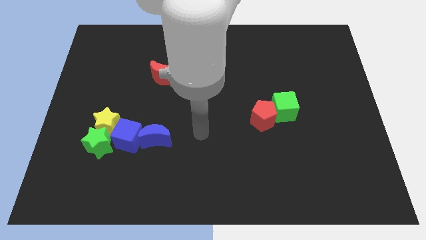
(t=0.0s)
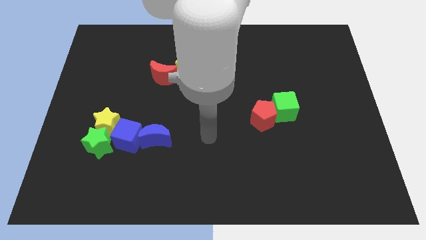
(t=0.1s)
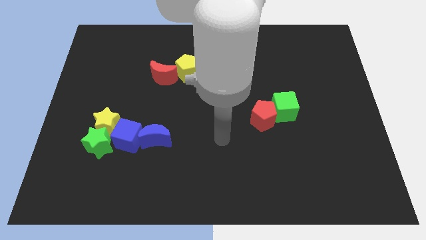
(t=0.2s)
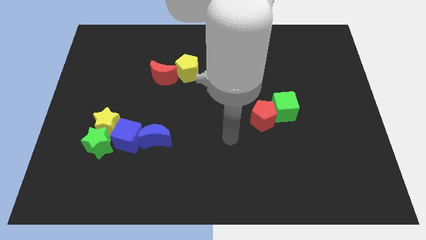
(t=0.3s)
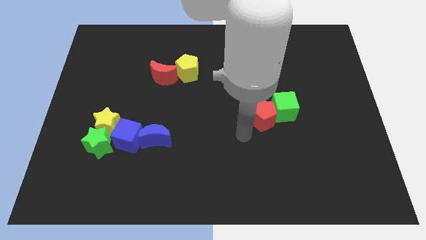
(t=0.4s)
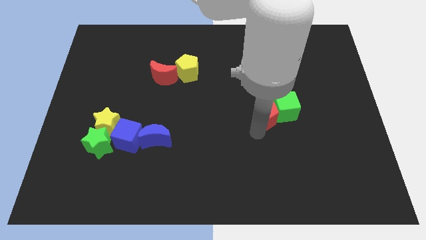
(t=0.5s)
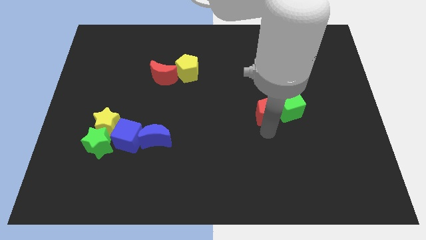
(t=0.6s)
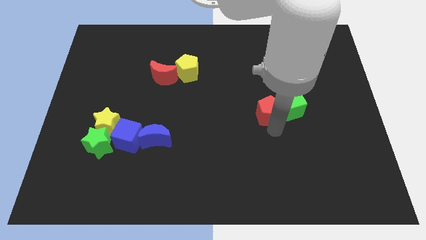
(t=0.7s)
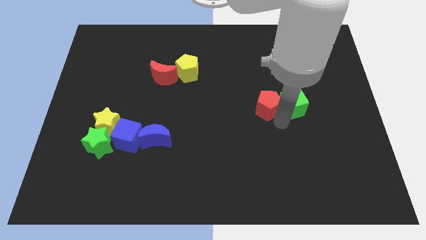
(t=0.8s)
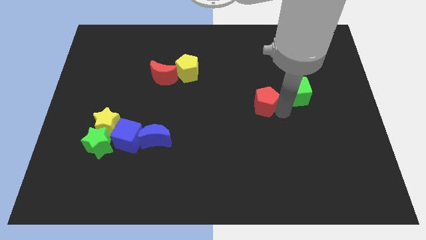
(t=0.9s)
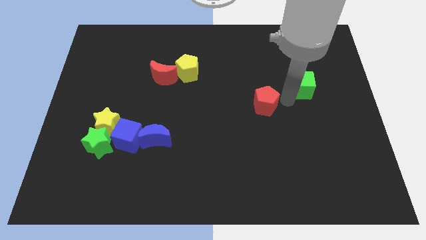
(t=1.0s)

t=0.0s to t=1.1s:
move the red pentagon away from the green cube

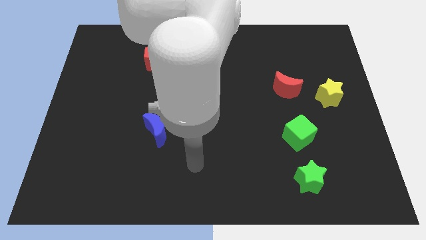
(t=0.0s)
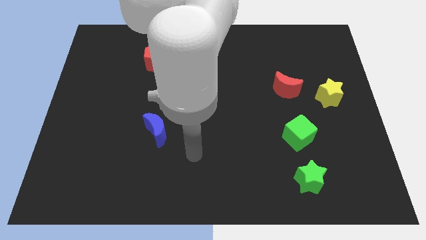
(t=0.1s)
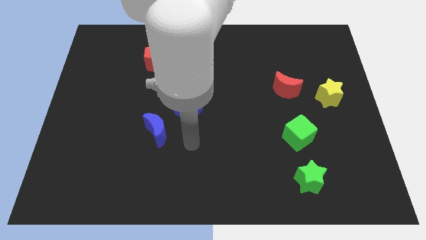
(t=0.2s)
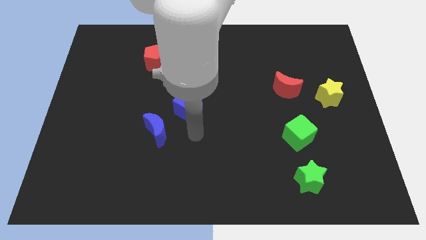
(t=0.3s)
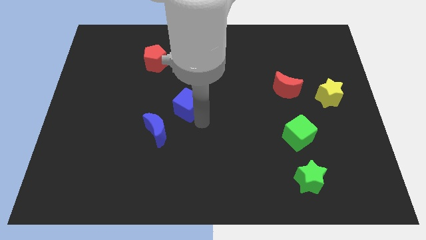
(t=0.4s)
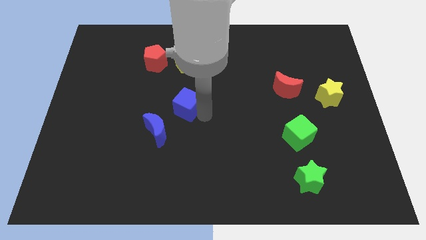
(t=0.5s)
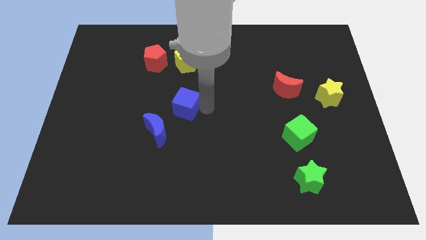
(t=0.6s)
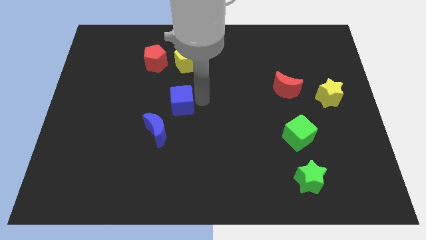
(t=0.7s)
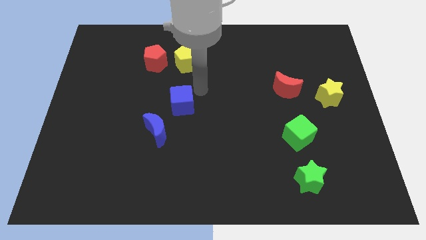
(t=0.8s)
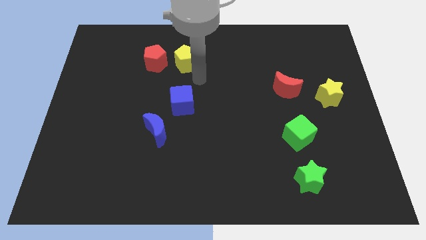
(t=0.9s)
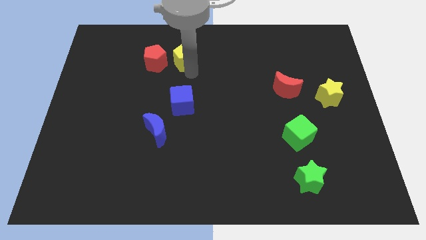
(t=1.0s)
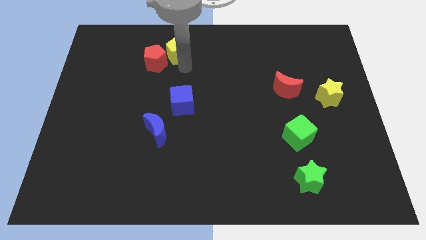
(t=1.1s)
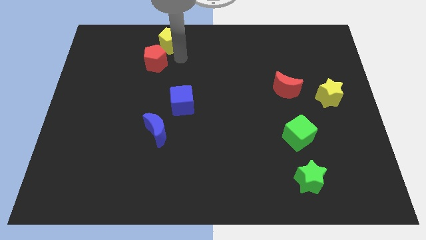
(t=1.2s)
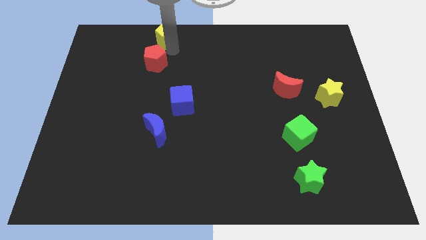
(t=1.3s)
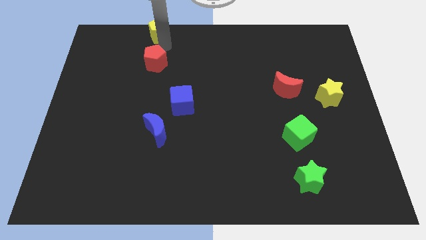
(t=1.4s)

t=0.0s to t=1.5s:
pull the red pentagon apart from the yellow pentagon

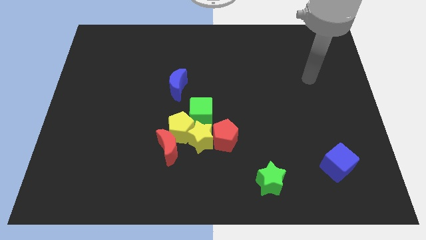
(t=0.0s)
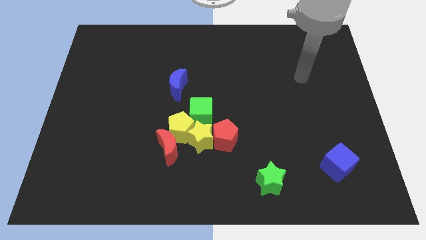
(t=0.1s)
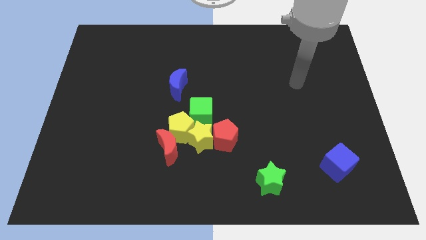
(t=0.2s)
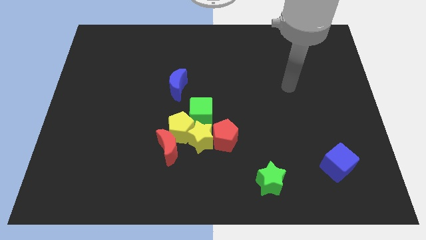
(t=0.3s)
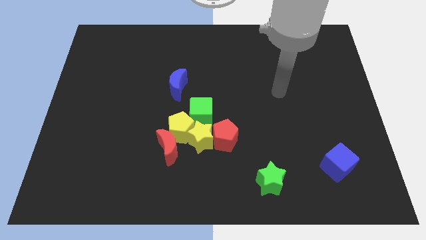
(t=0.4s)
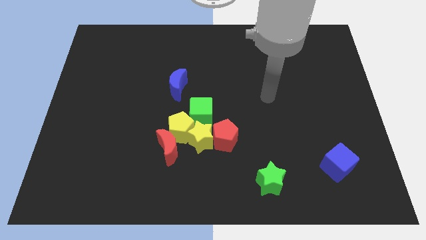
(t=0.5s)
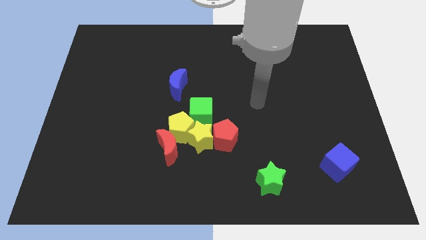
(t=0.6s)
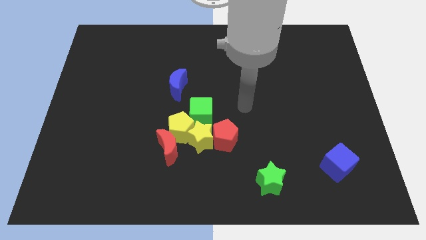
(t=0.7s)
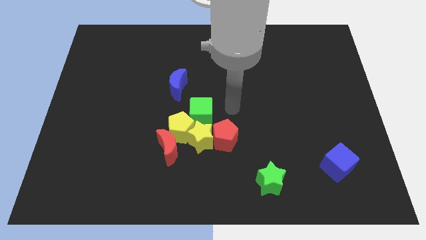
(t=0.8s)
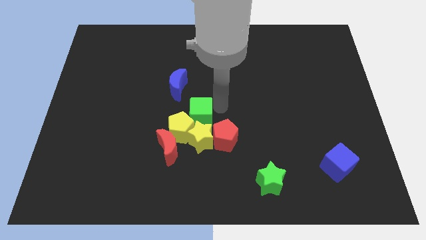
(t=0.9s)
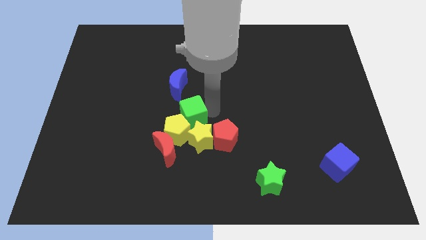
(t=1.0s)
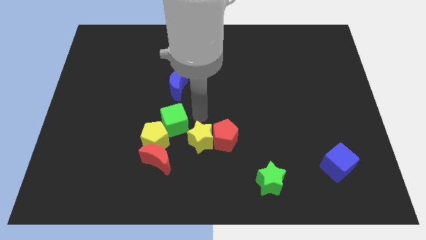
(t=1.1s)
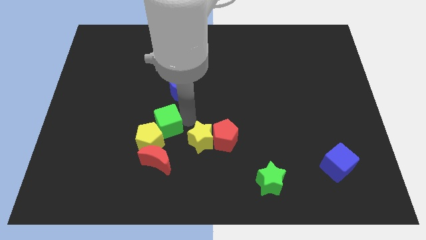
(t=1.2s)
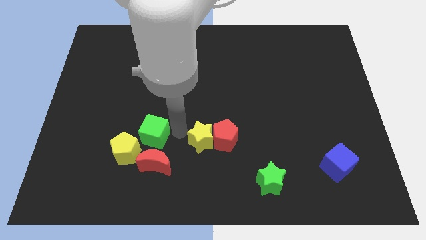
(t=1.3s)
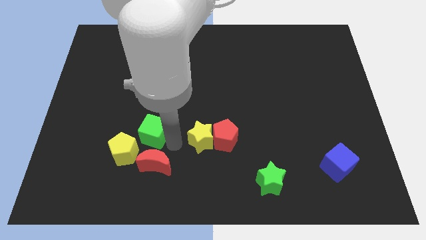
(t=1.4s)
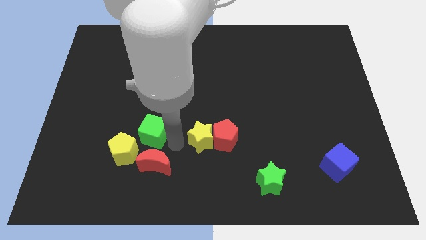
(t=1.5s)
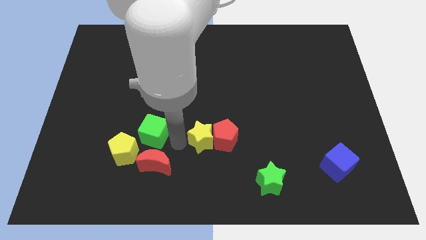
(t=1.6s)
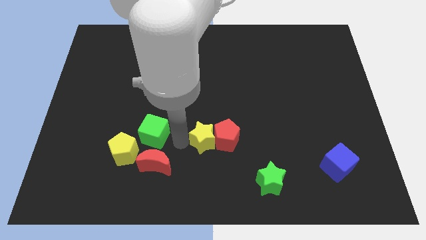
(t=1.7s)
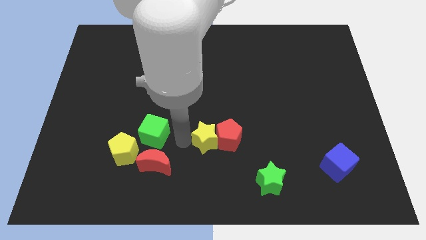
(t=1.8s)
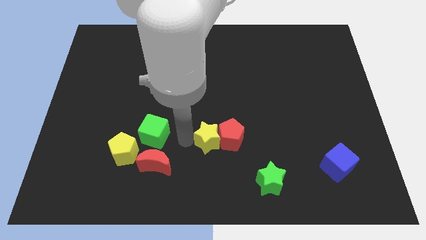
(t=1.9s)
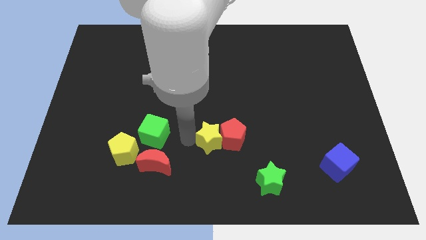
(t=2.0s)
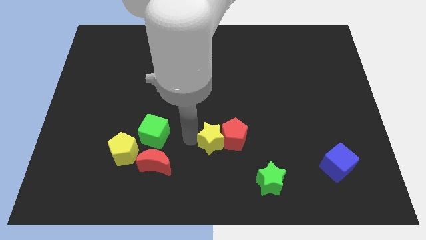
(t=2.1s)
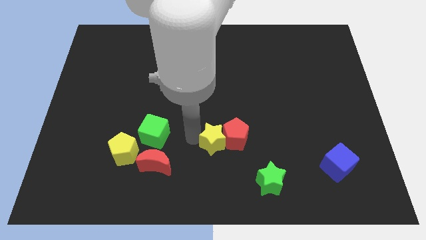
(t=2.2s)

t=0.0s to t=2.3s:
move the yellow star away from the group

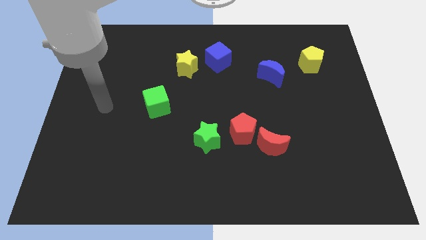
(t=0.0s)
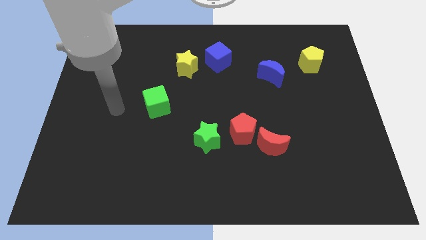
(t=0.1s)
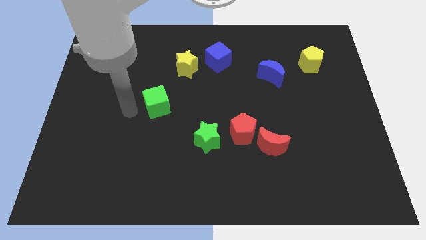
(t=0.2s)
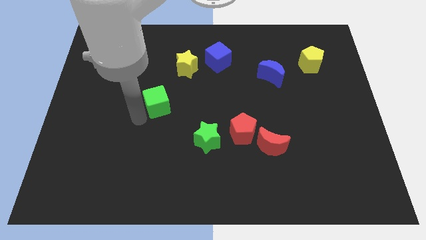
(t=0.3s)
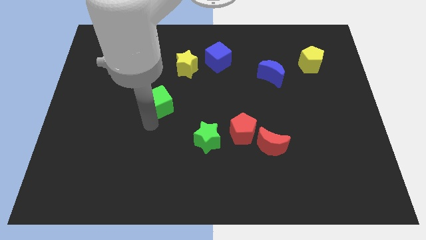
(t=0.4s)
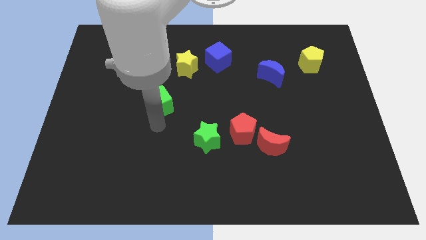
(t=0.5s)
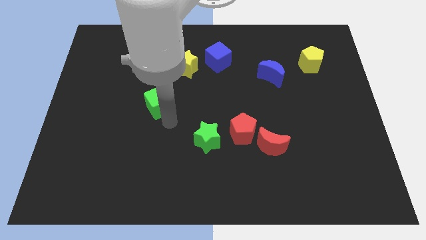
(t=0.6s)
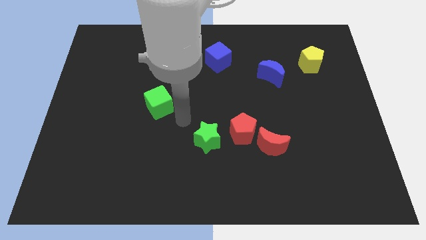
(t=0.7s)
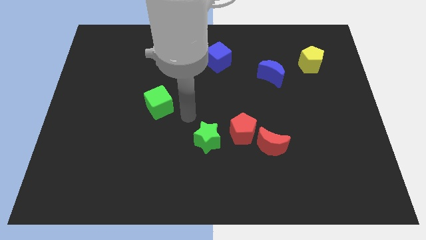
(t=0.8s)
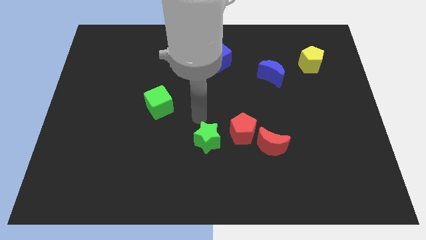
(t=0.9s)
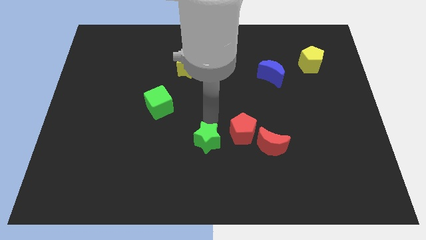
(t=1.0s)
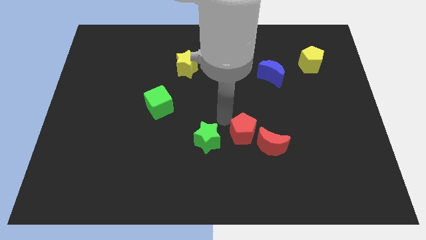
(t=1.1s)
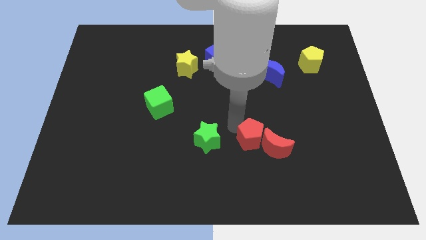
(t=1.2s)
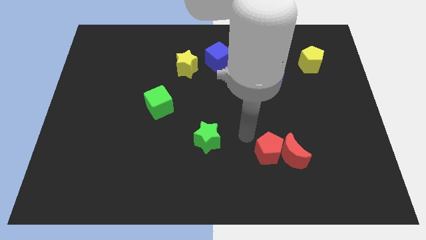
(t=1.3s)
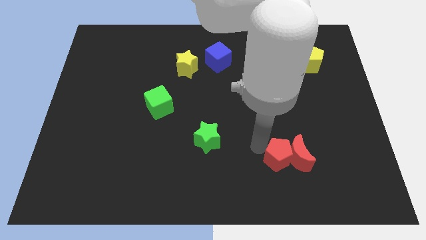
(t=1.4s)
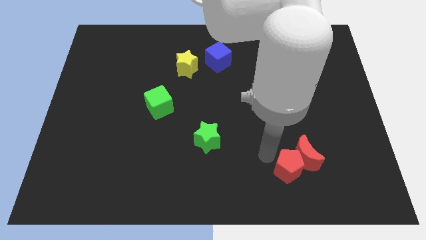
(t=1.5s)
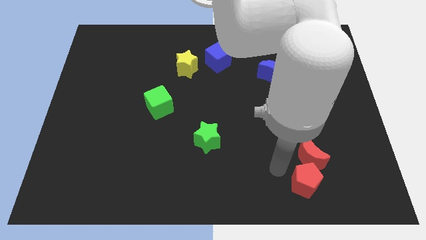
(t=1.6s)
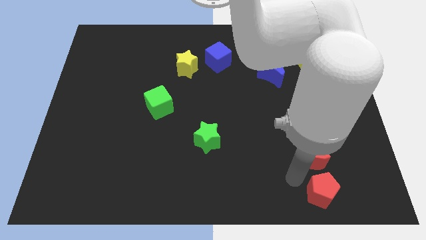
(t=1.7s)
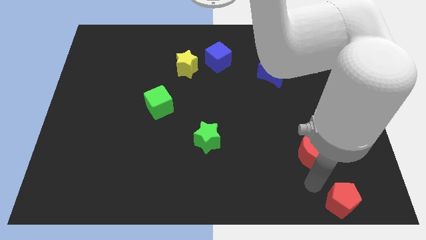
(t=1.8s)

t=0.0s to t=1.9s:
move the red moon away from the red pentagon

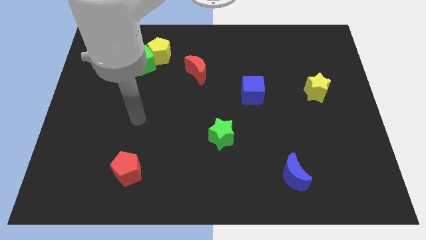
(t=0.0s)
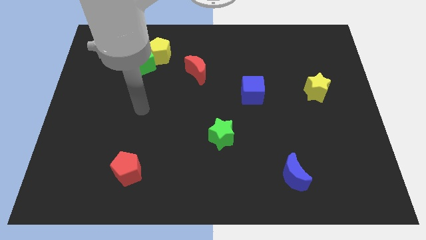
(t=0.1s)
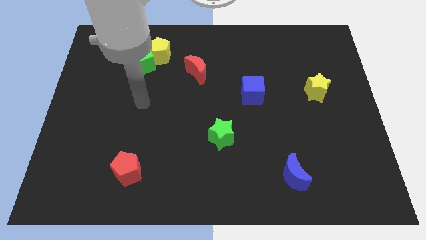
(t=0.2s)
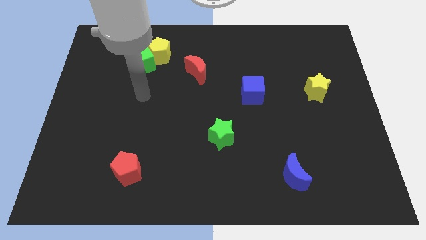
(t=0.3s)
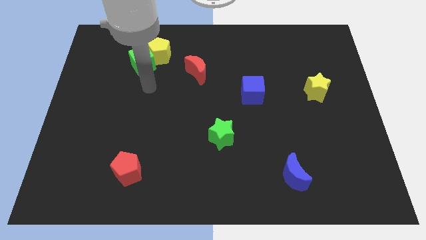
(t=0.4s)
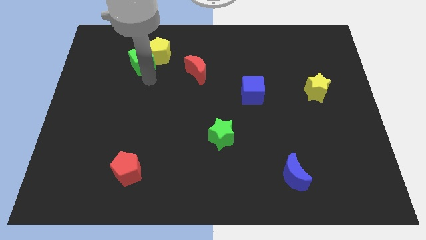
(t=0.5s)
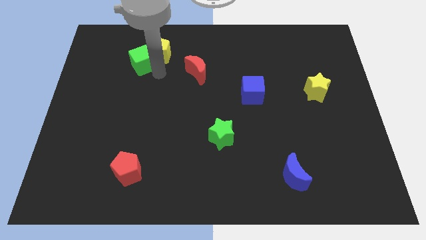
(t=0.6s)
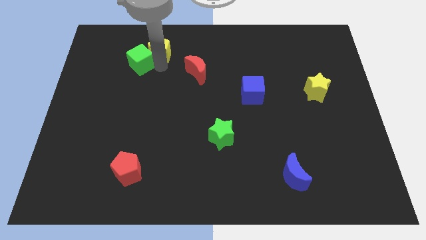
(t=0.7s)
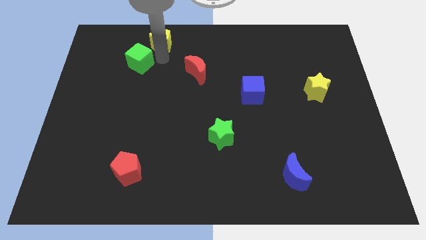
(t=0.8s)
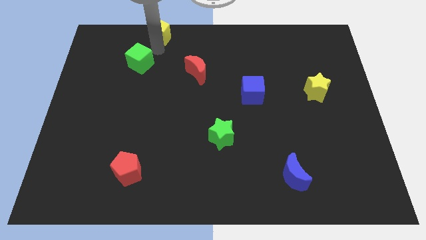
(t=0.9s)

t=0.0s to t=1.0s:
pull the green cube apart from the yellow pentagon

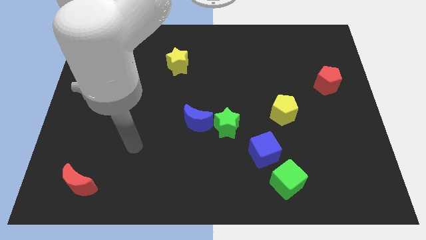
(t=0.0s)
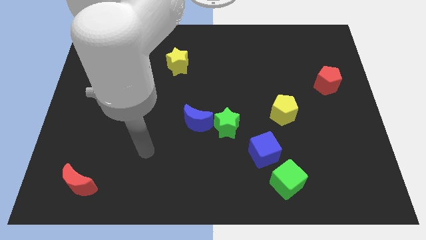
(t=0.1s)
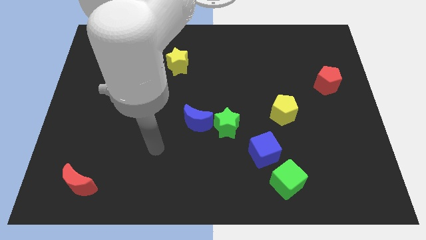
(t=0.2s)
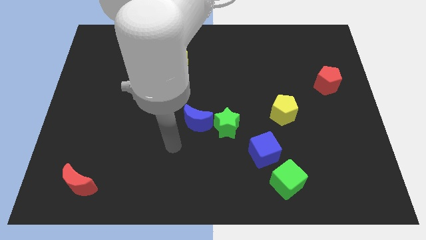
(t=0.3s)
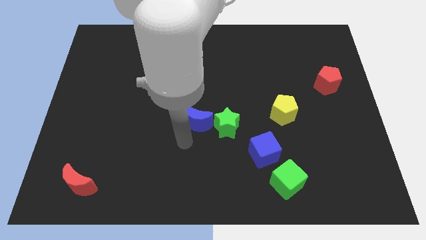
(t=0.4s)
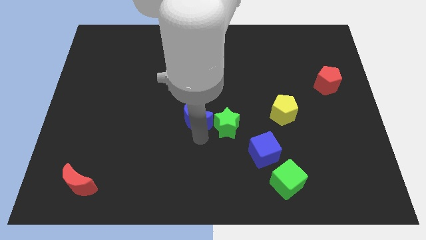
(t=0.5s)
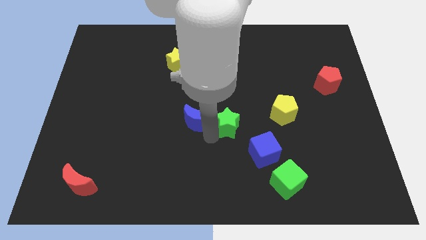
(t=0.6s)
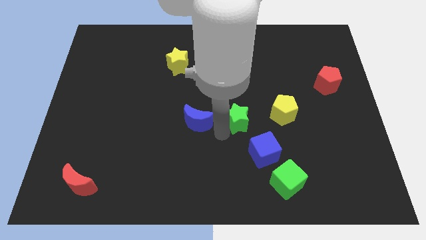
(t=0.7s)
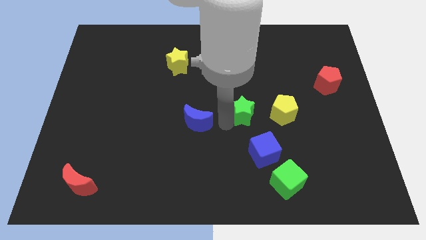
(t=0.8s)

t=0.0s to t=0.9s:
move the blue moon away from the green star

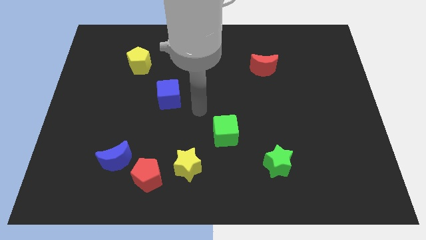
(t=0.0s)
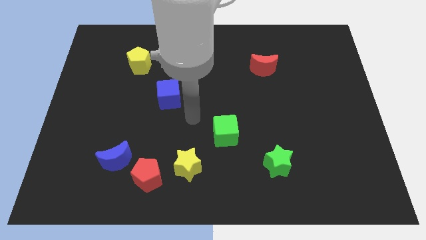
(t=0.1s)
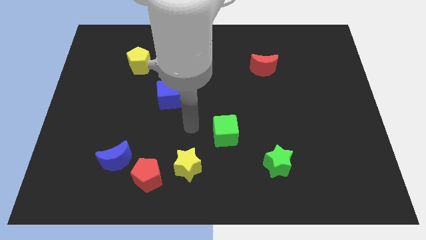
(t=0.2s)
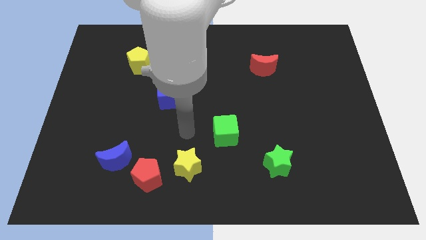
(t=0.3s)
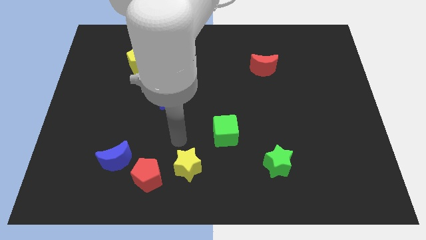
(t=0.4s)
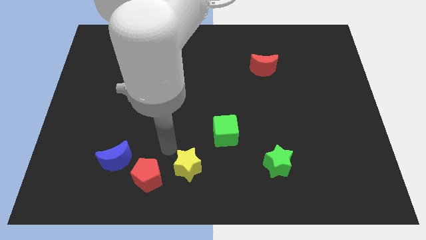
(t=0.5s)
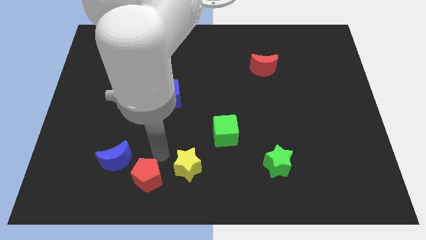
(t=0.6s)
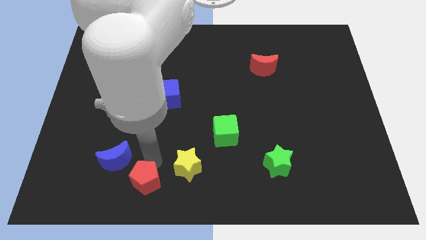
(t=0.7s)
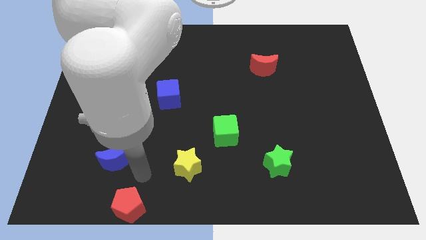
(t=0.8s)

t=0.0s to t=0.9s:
pull the blue moon apart from the red pentagon
